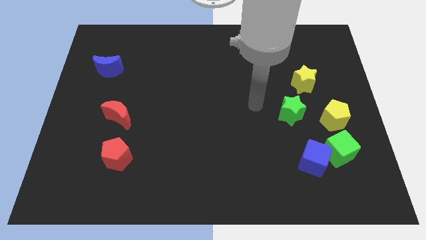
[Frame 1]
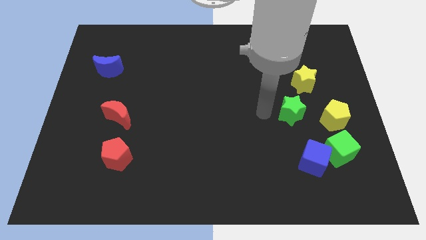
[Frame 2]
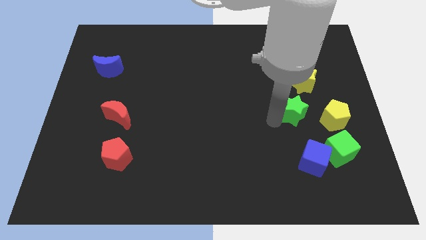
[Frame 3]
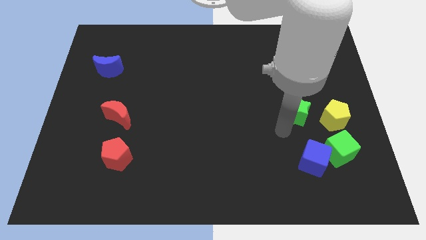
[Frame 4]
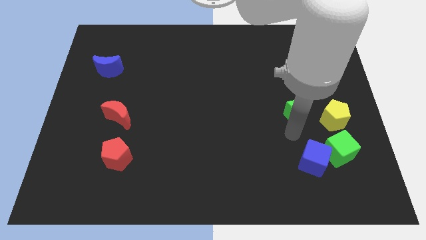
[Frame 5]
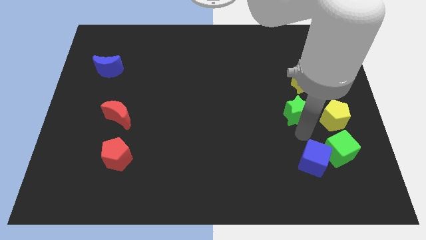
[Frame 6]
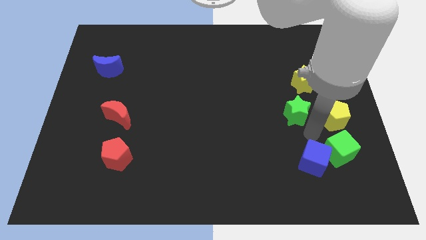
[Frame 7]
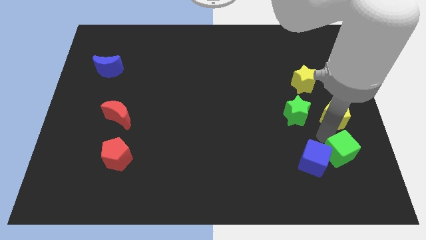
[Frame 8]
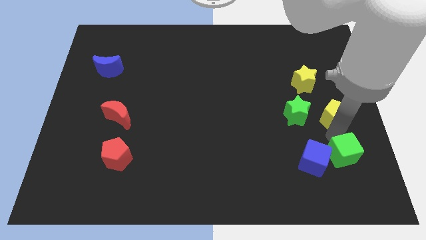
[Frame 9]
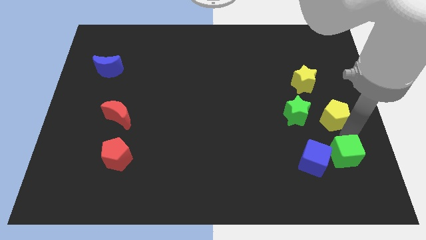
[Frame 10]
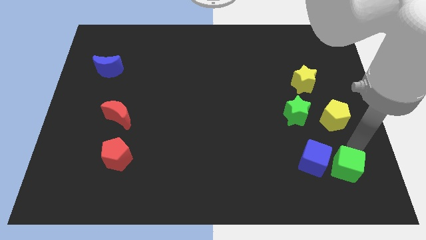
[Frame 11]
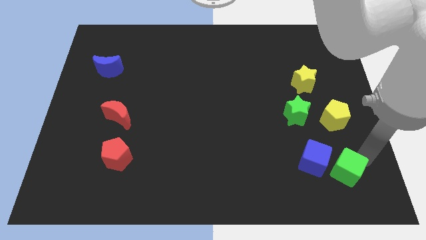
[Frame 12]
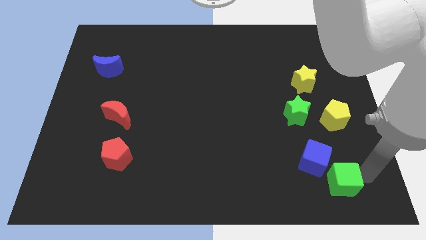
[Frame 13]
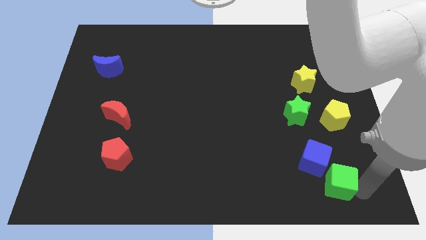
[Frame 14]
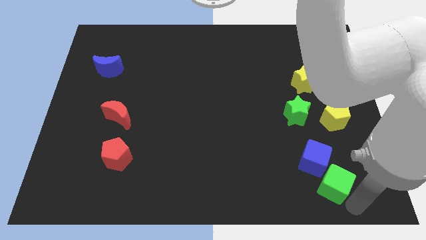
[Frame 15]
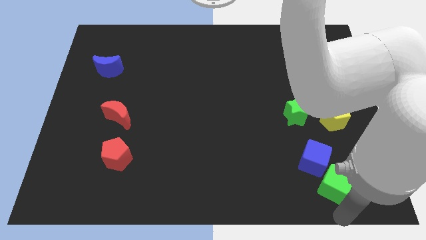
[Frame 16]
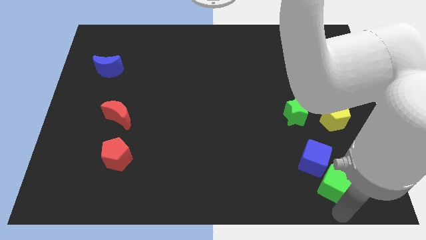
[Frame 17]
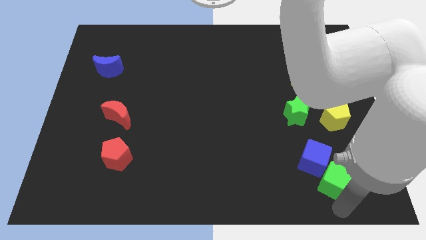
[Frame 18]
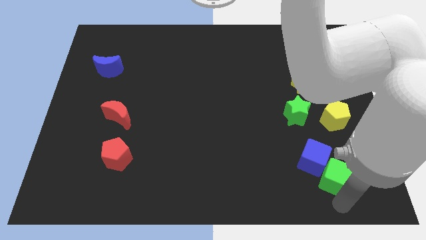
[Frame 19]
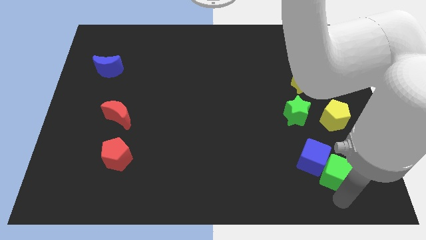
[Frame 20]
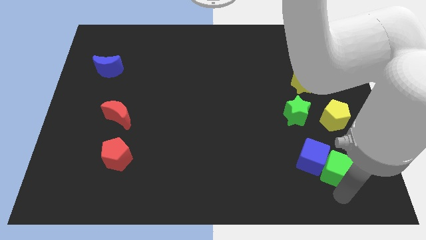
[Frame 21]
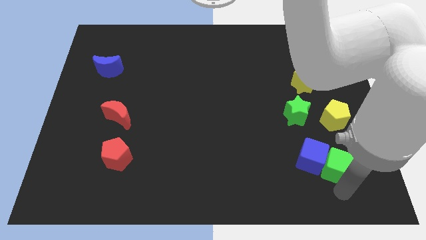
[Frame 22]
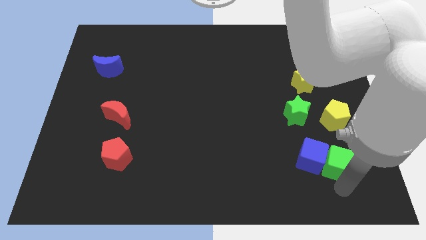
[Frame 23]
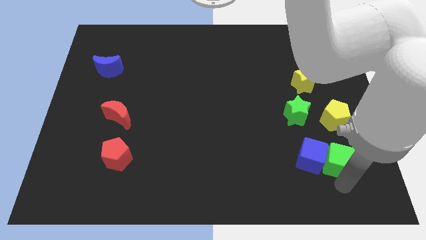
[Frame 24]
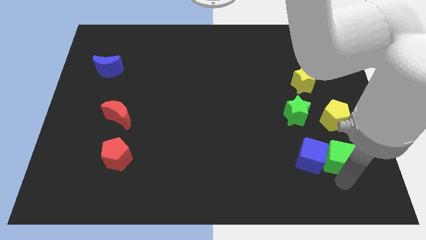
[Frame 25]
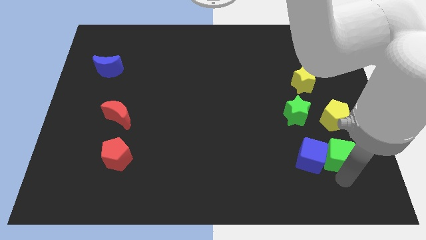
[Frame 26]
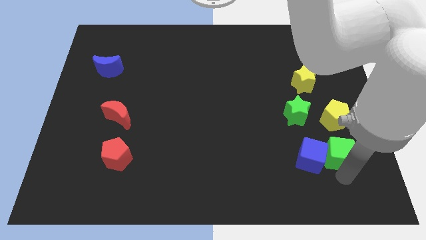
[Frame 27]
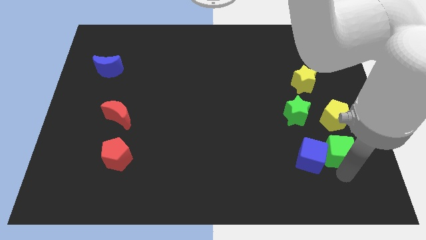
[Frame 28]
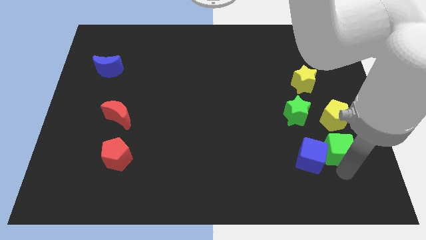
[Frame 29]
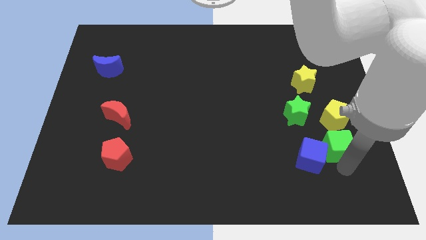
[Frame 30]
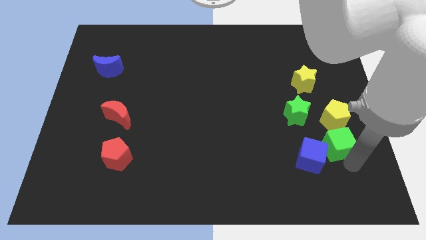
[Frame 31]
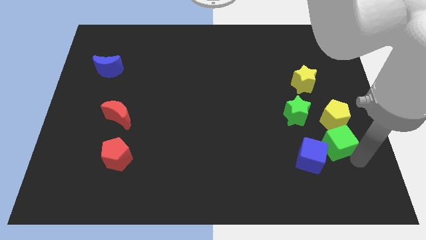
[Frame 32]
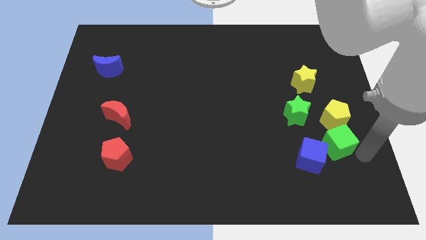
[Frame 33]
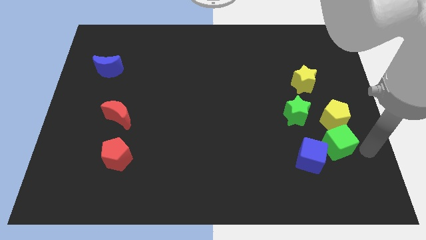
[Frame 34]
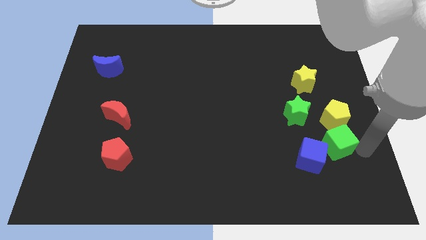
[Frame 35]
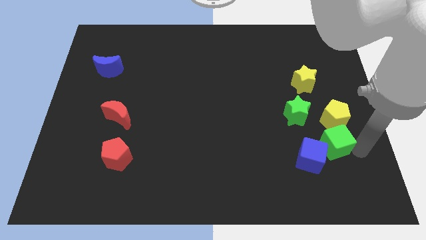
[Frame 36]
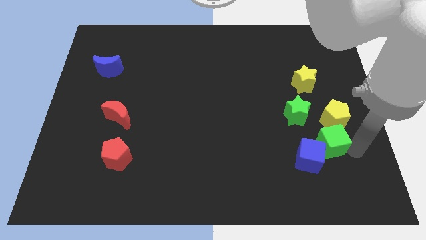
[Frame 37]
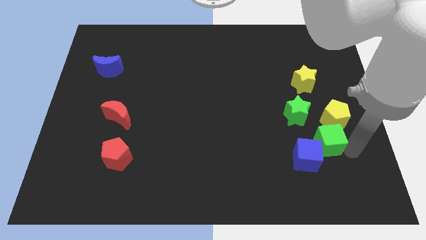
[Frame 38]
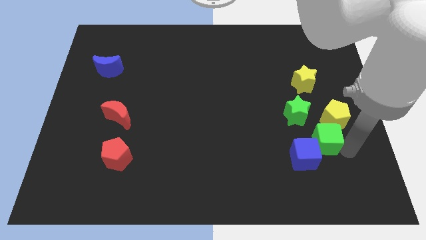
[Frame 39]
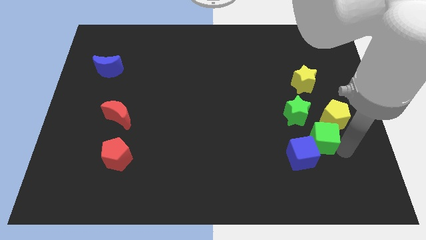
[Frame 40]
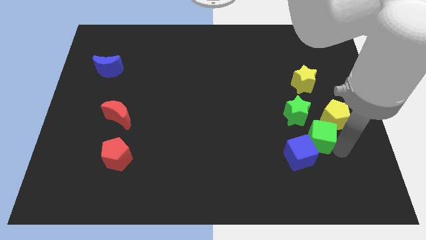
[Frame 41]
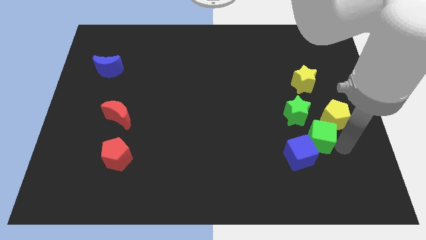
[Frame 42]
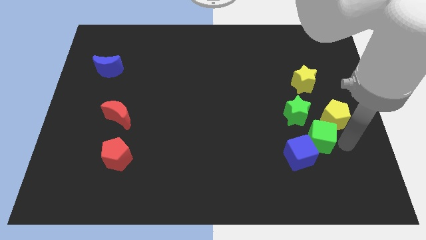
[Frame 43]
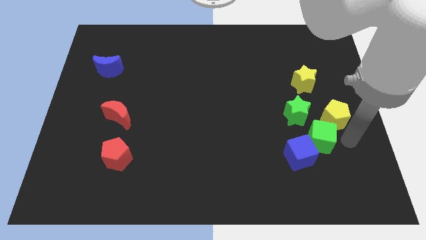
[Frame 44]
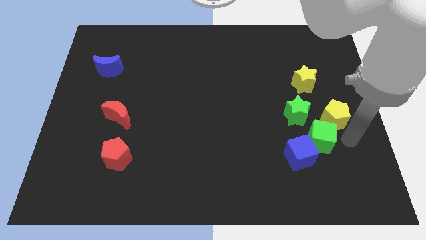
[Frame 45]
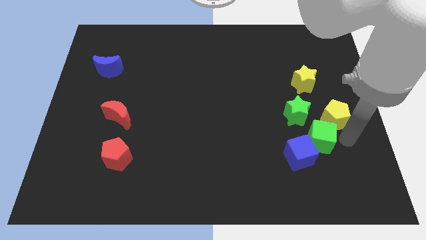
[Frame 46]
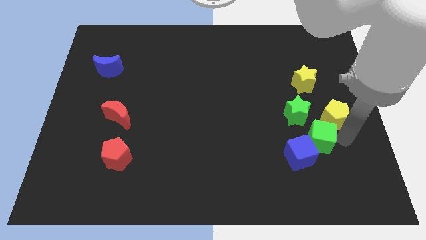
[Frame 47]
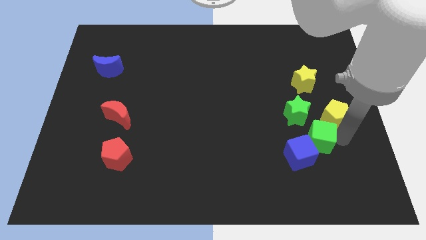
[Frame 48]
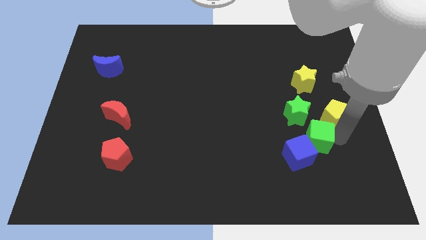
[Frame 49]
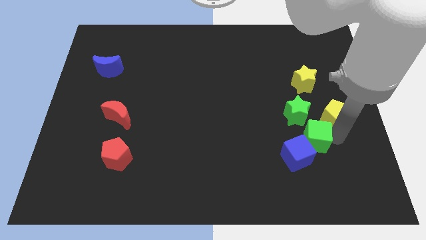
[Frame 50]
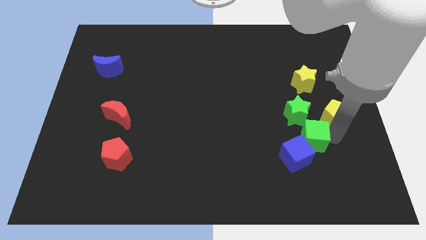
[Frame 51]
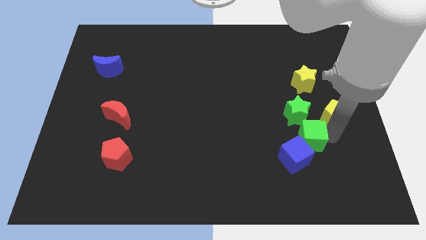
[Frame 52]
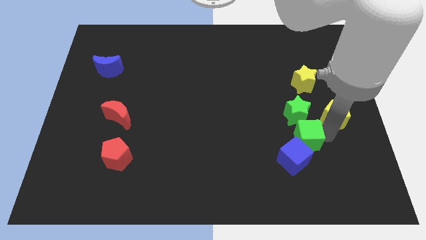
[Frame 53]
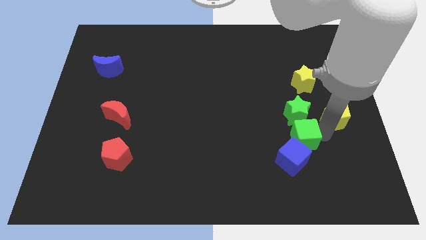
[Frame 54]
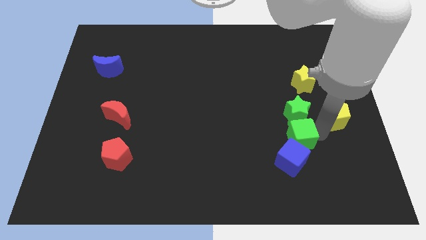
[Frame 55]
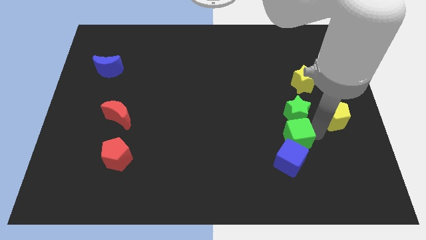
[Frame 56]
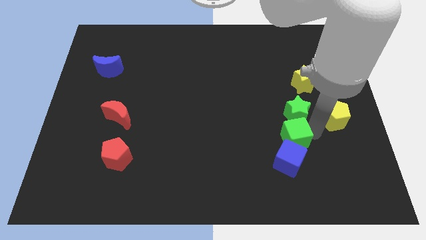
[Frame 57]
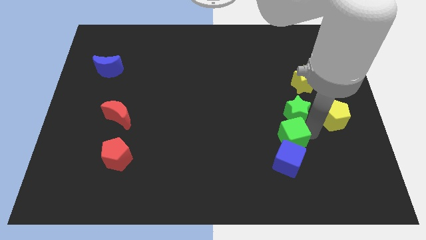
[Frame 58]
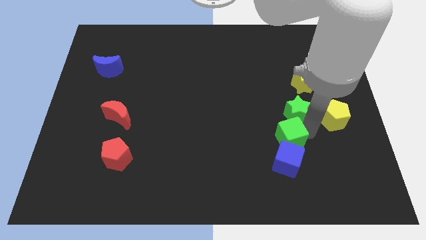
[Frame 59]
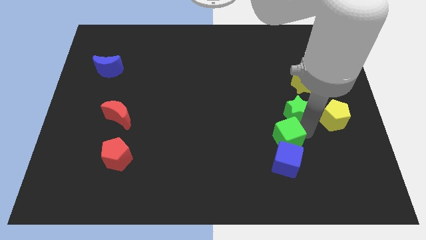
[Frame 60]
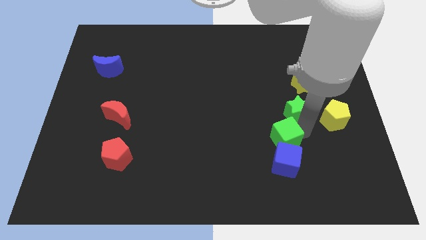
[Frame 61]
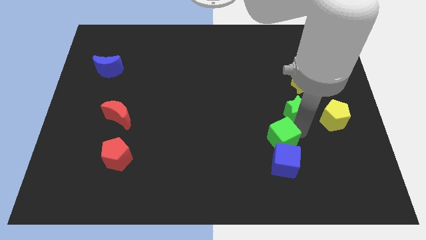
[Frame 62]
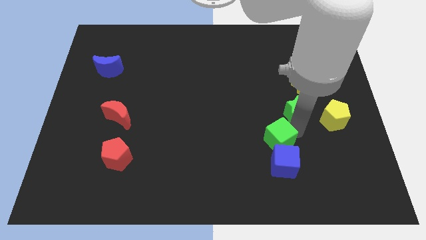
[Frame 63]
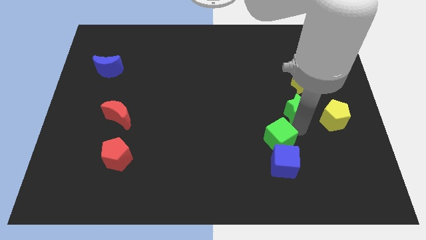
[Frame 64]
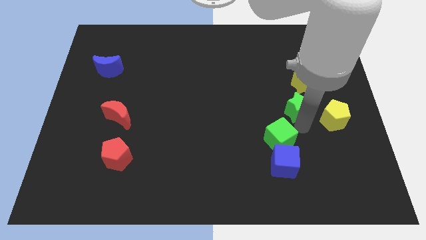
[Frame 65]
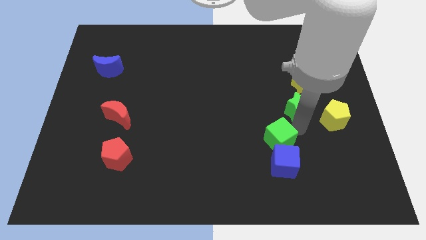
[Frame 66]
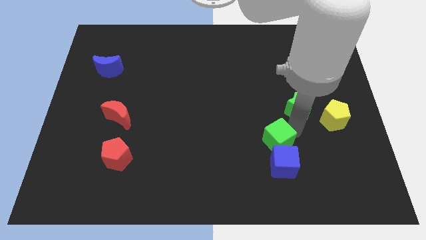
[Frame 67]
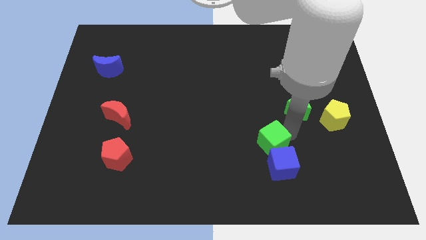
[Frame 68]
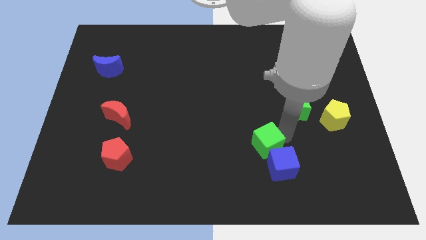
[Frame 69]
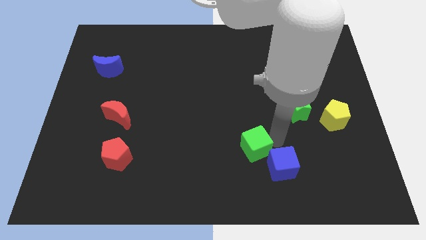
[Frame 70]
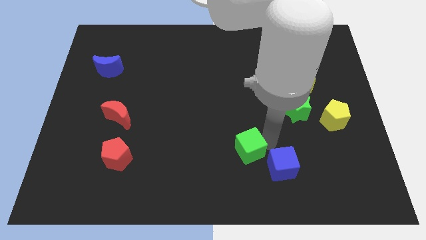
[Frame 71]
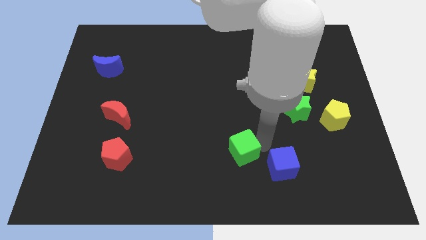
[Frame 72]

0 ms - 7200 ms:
slide the green cube left

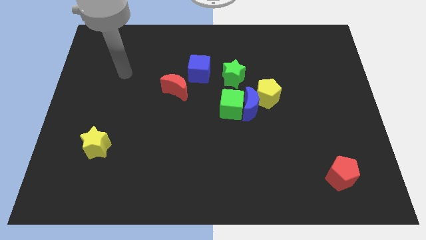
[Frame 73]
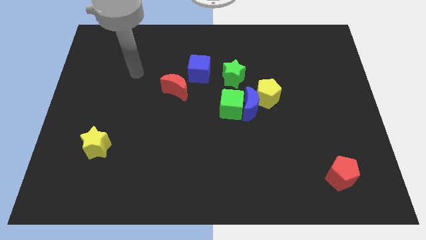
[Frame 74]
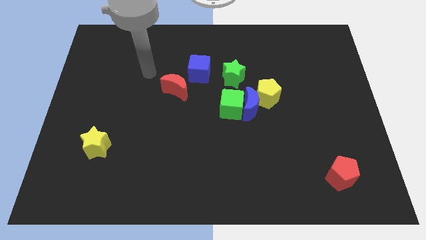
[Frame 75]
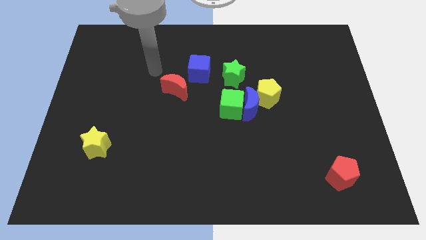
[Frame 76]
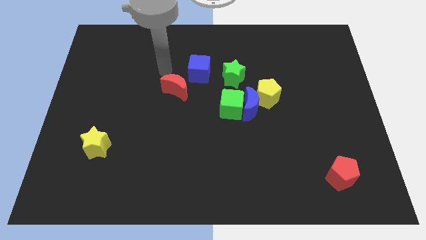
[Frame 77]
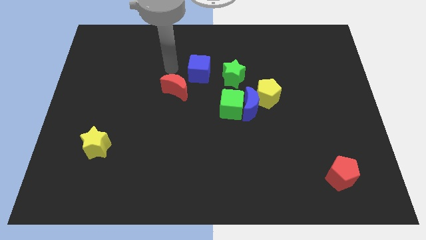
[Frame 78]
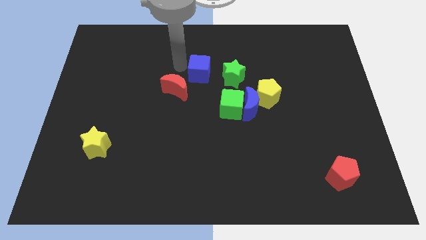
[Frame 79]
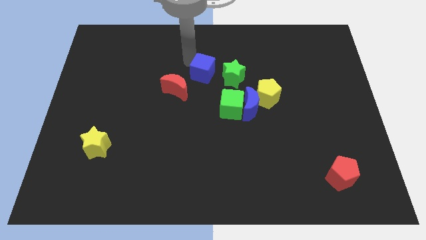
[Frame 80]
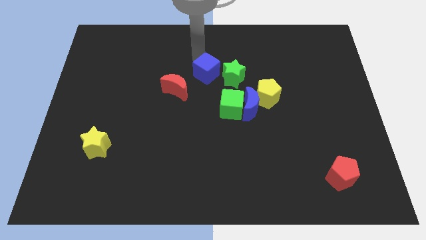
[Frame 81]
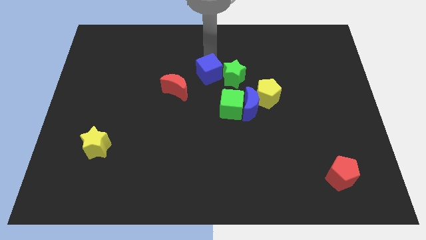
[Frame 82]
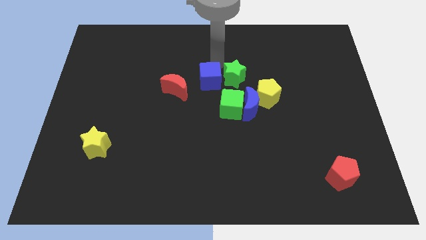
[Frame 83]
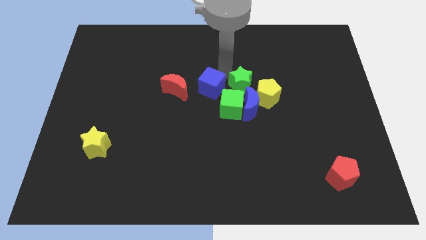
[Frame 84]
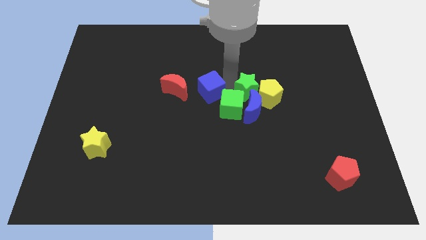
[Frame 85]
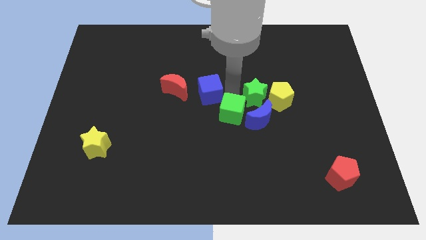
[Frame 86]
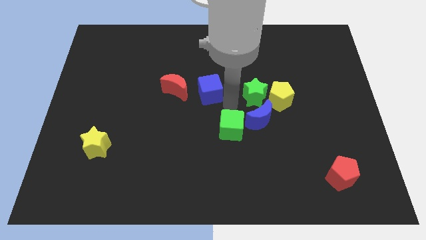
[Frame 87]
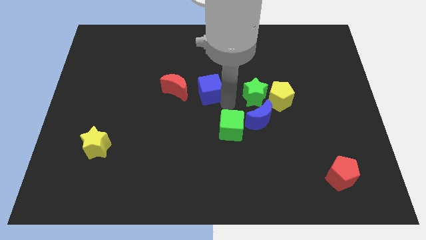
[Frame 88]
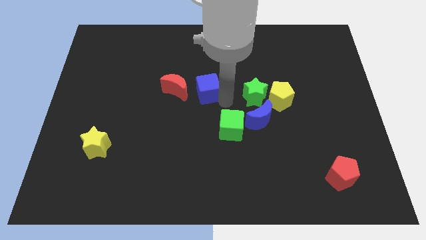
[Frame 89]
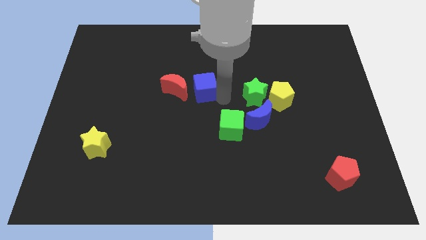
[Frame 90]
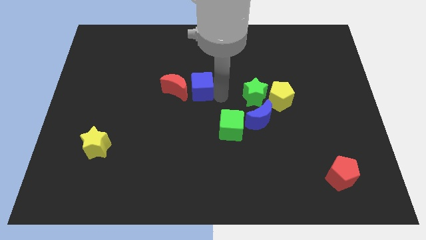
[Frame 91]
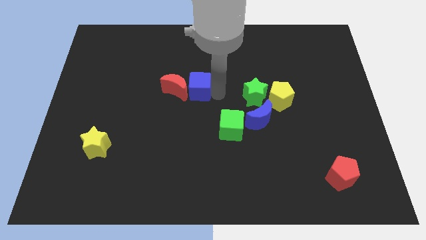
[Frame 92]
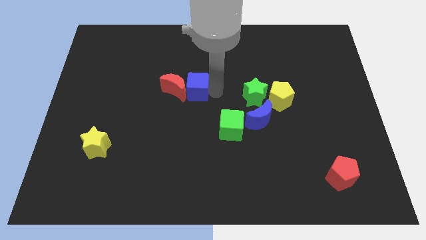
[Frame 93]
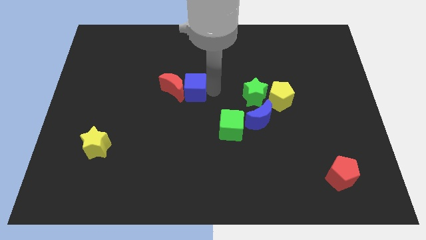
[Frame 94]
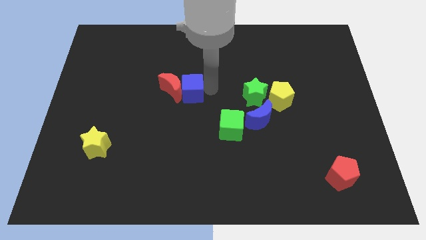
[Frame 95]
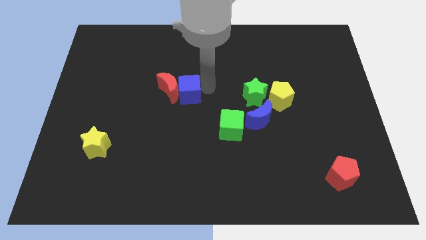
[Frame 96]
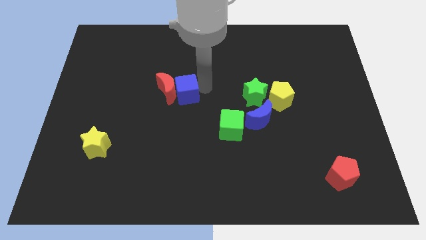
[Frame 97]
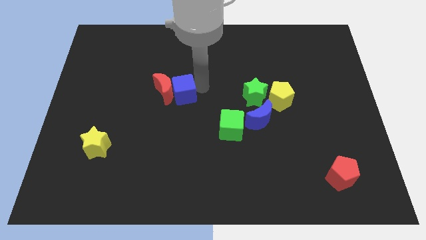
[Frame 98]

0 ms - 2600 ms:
slightly slide the blue cube diagonally down and to the left
